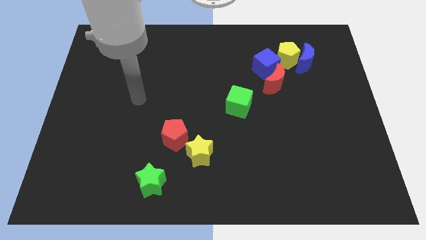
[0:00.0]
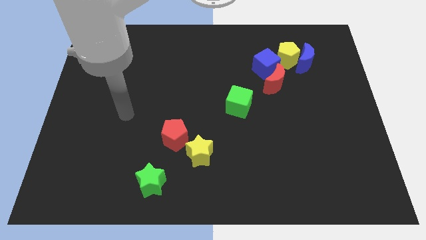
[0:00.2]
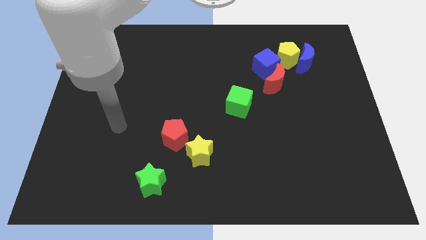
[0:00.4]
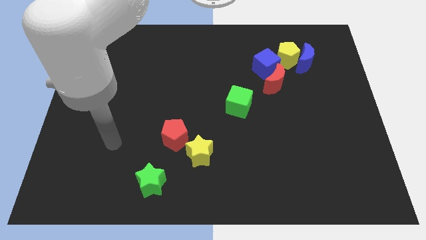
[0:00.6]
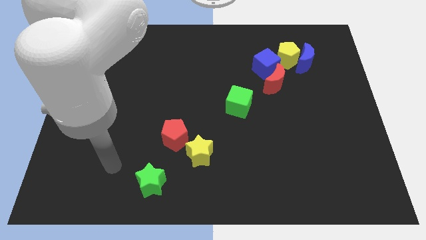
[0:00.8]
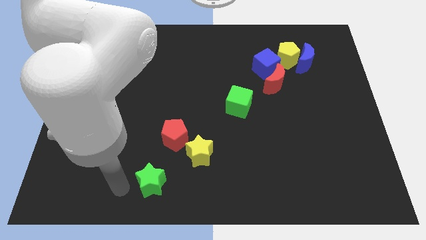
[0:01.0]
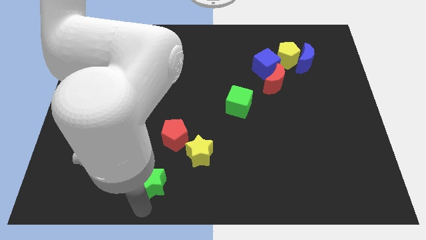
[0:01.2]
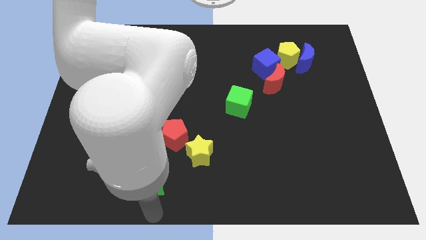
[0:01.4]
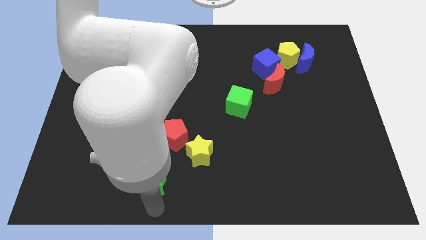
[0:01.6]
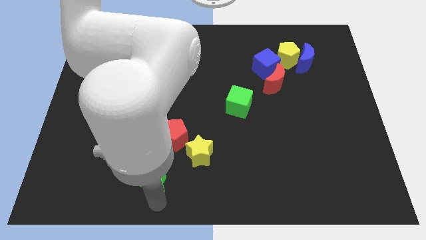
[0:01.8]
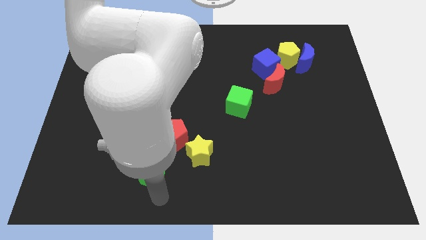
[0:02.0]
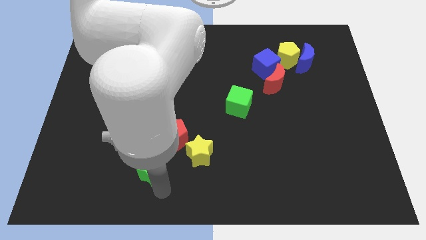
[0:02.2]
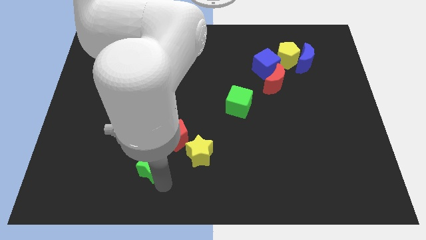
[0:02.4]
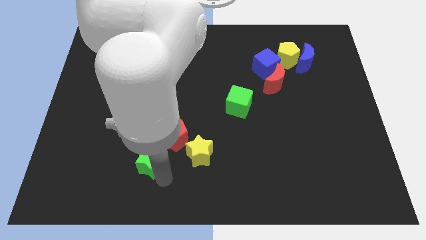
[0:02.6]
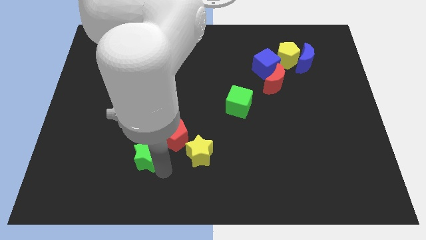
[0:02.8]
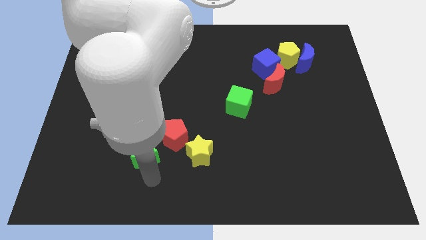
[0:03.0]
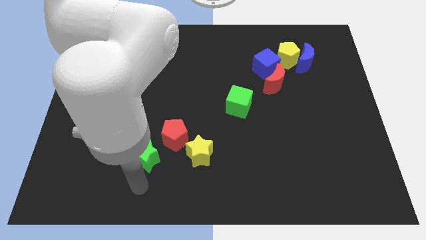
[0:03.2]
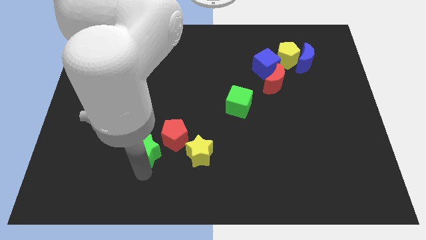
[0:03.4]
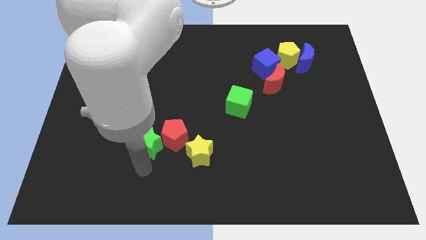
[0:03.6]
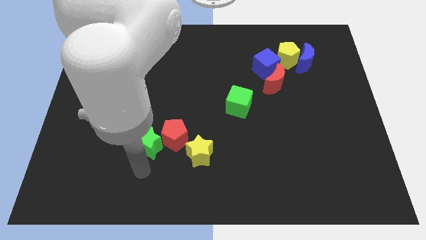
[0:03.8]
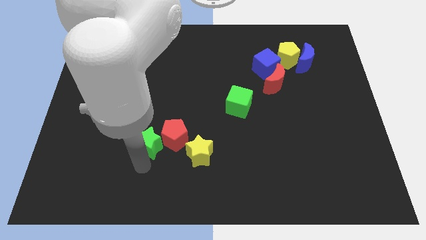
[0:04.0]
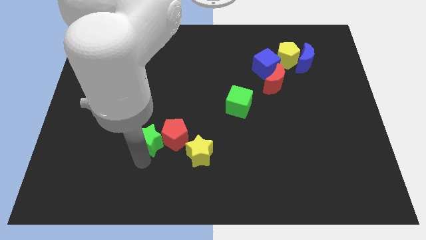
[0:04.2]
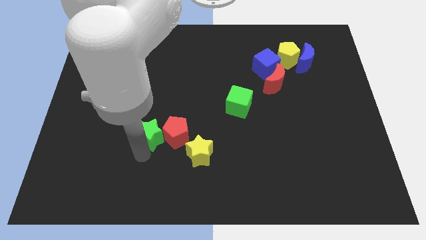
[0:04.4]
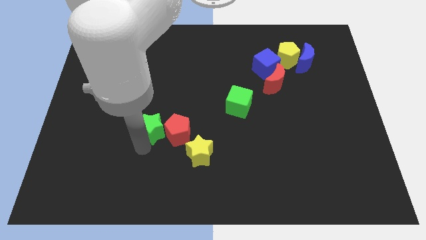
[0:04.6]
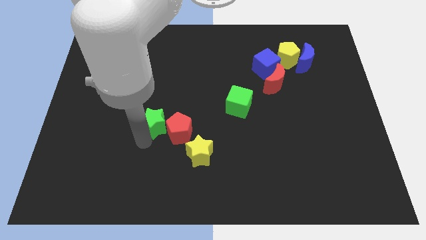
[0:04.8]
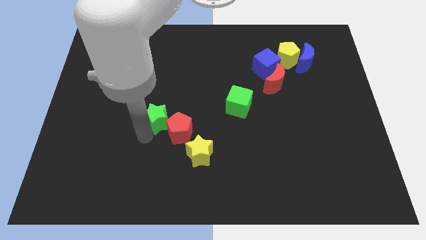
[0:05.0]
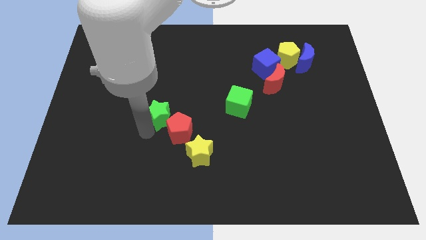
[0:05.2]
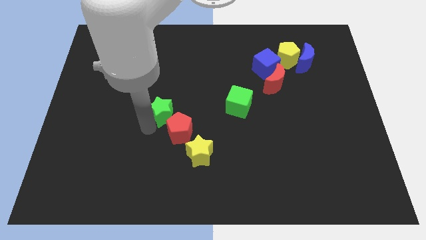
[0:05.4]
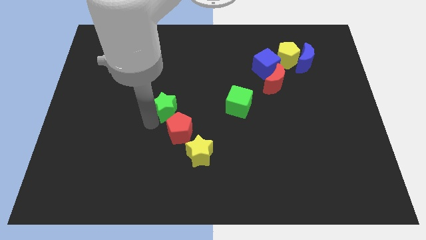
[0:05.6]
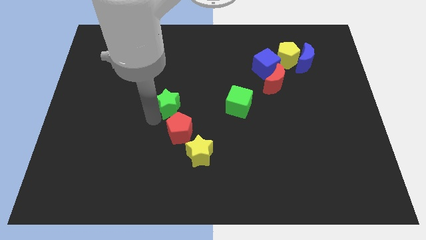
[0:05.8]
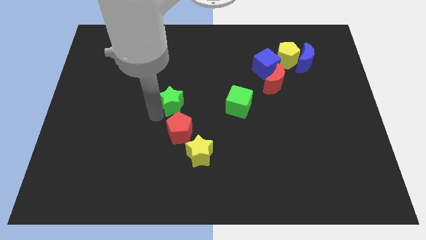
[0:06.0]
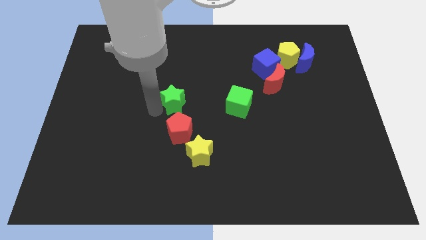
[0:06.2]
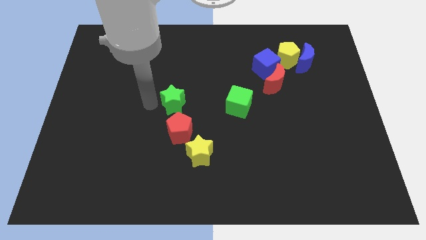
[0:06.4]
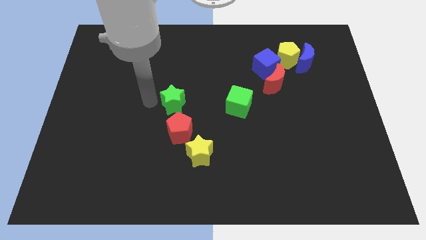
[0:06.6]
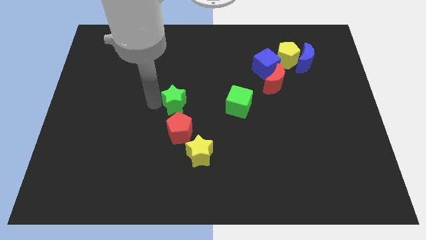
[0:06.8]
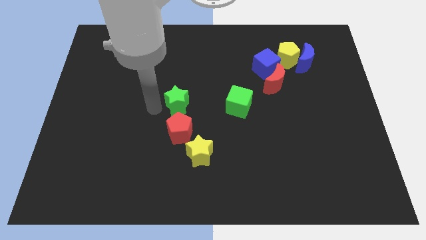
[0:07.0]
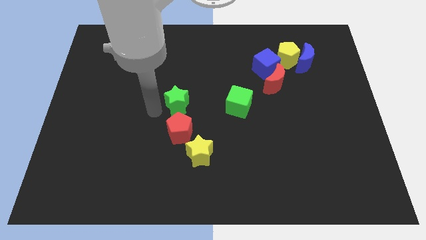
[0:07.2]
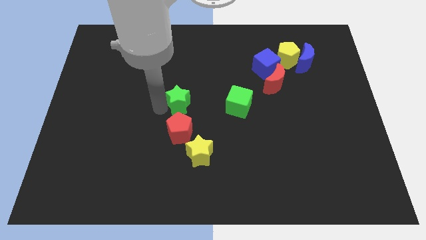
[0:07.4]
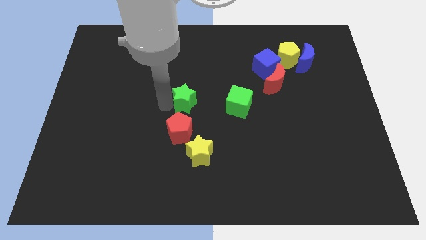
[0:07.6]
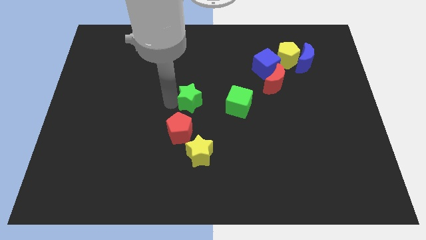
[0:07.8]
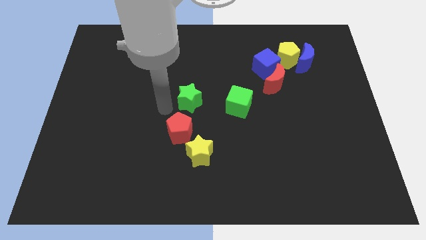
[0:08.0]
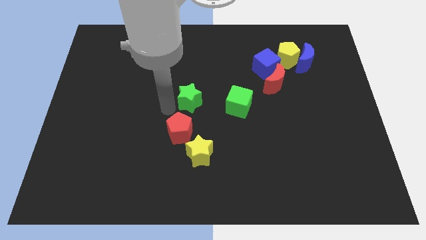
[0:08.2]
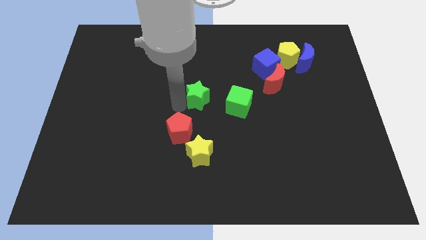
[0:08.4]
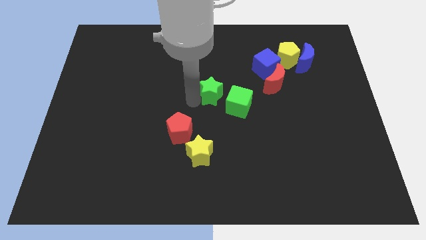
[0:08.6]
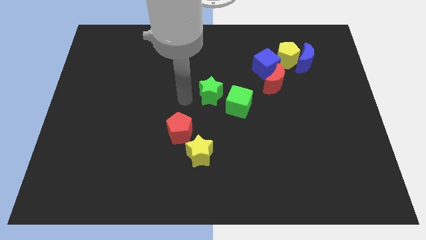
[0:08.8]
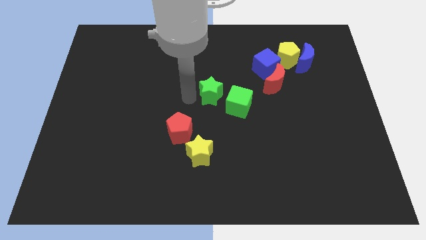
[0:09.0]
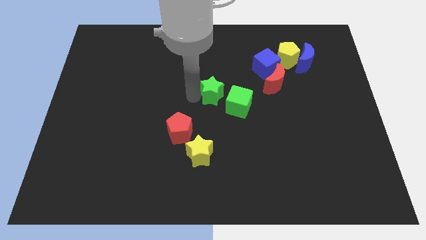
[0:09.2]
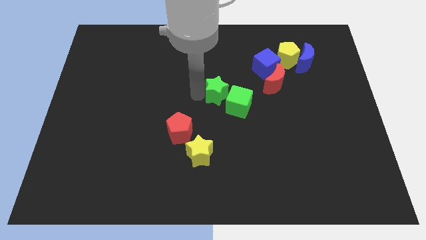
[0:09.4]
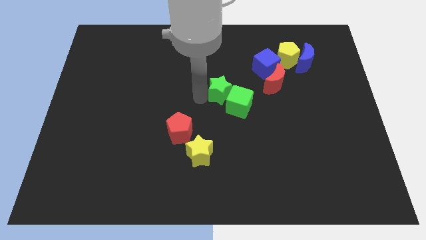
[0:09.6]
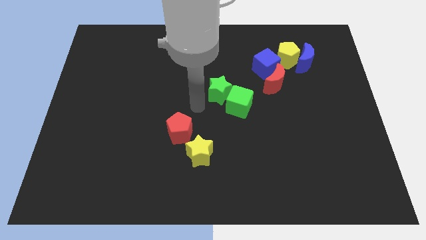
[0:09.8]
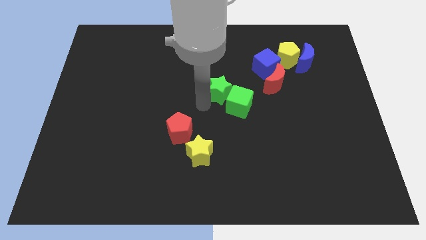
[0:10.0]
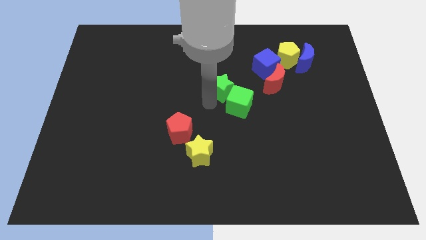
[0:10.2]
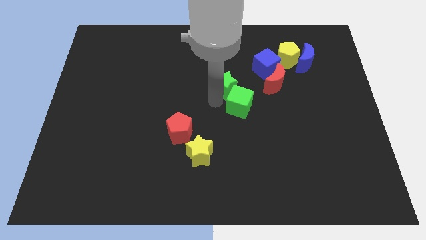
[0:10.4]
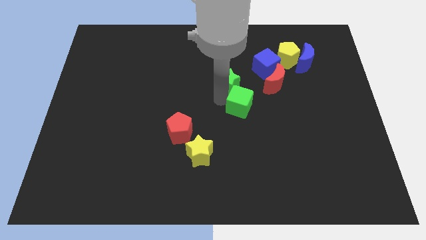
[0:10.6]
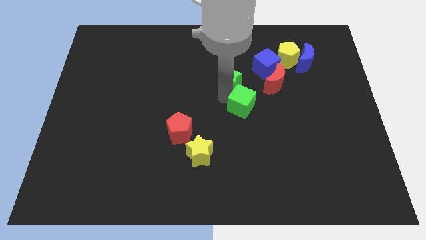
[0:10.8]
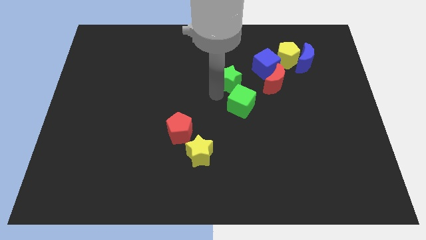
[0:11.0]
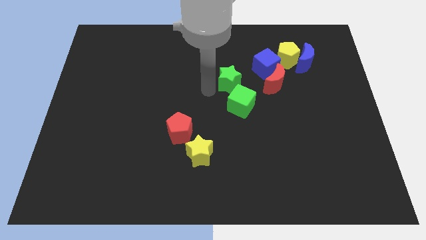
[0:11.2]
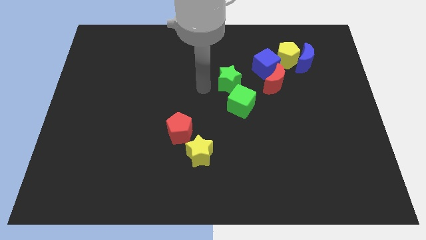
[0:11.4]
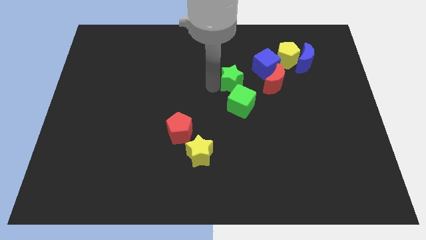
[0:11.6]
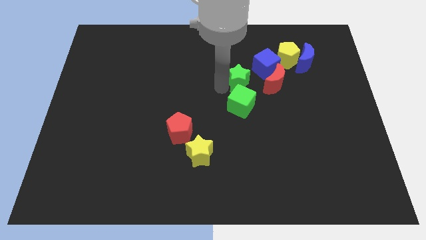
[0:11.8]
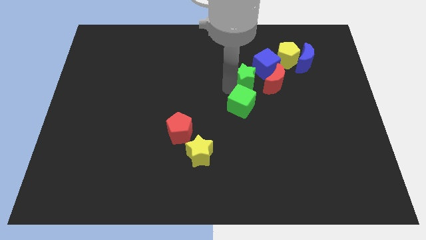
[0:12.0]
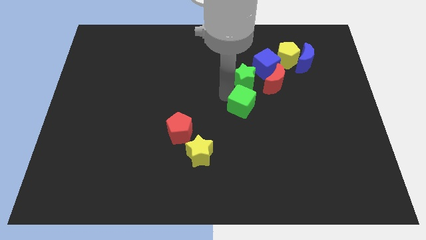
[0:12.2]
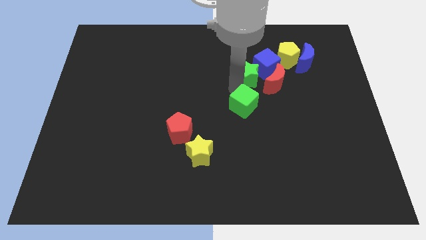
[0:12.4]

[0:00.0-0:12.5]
slide the green star close to the blue cube

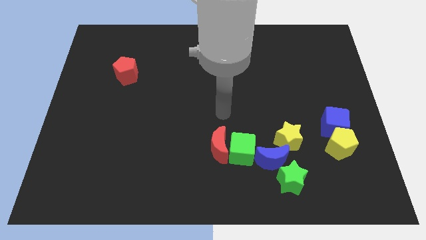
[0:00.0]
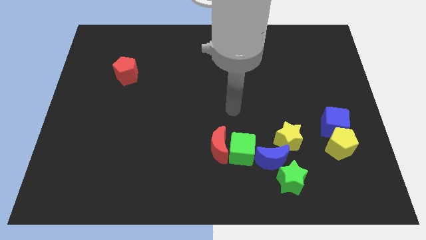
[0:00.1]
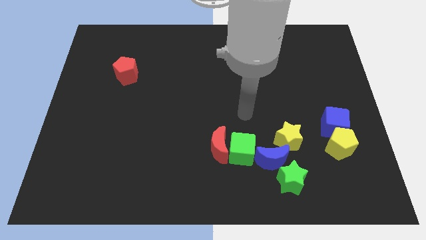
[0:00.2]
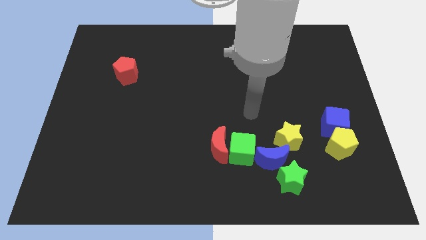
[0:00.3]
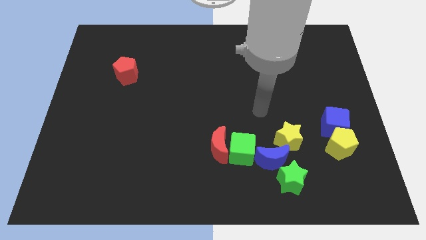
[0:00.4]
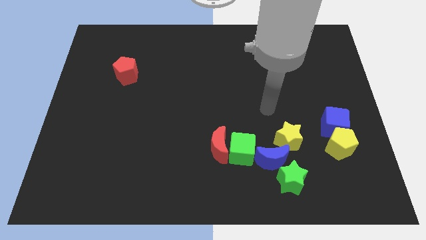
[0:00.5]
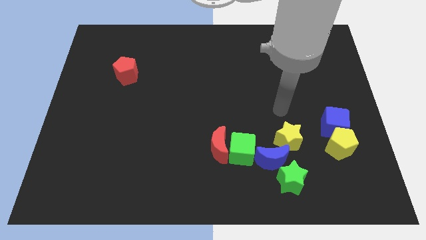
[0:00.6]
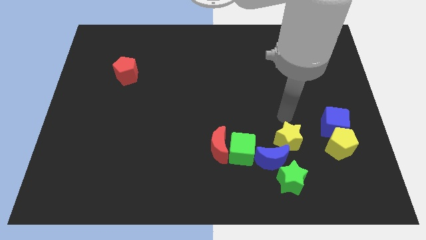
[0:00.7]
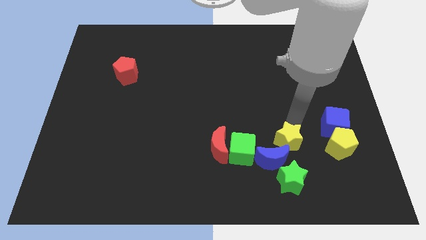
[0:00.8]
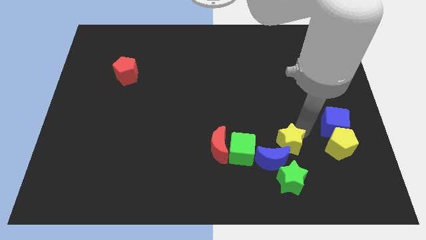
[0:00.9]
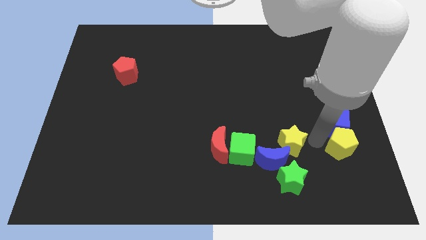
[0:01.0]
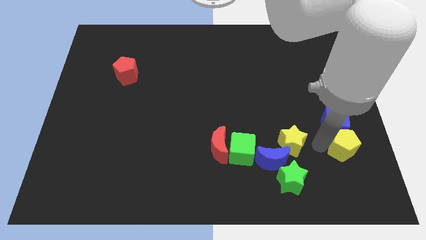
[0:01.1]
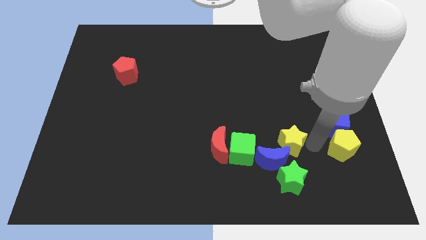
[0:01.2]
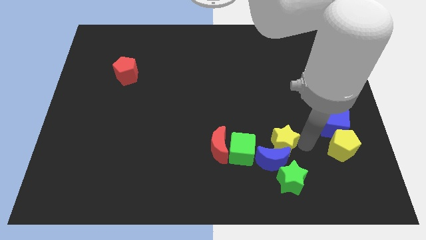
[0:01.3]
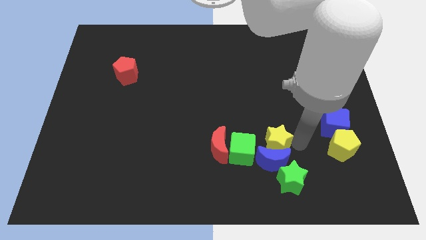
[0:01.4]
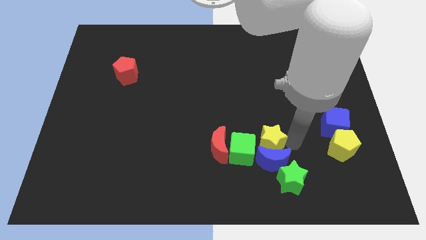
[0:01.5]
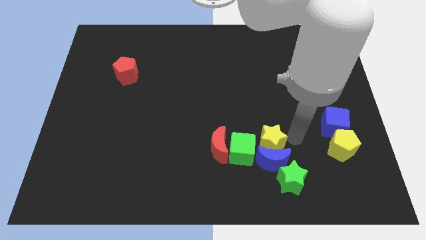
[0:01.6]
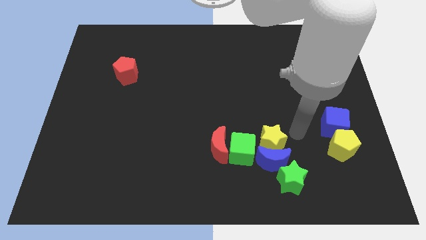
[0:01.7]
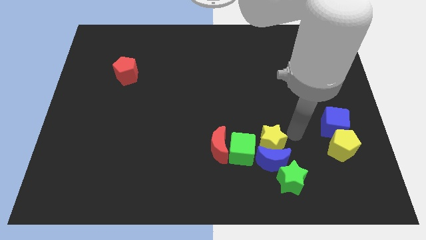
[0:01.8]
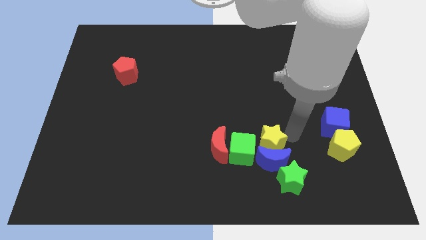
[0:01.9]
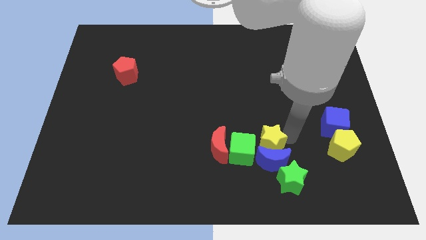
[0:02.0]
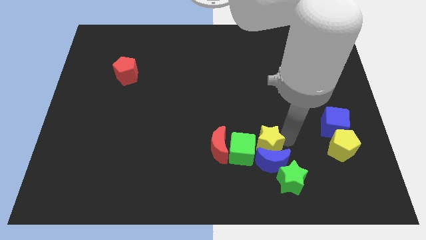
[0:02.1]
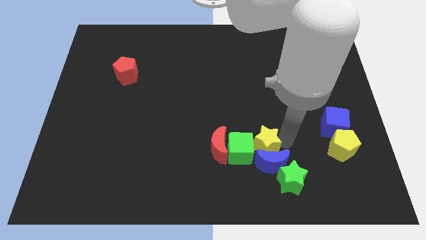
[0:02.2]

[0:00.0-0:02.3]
move the yellow star towards the green cube
